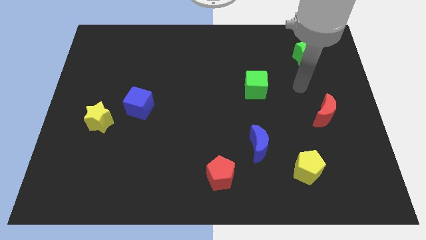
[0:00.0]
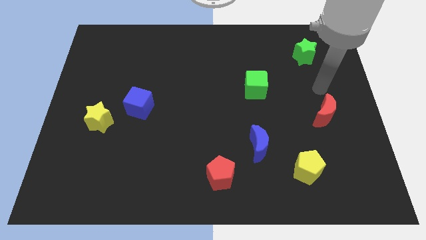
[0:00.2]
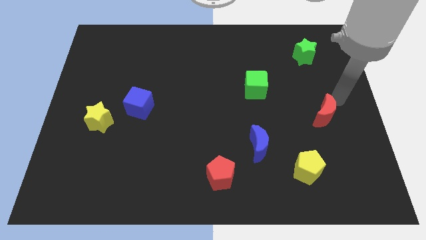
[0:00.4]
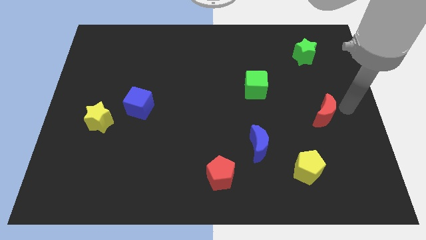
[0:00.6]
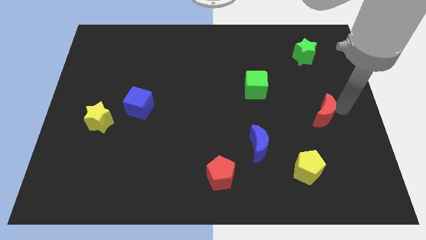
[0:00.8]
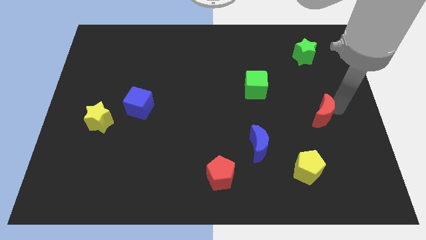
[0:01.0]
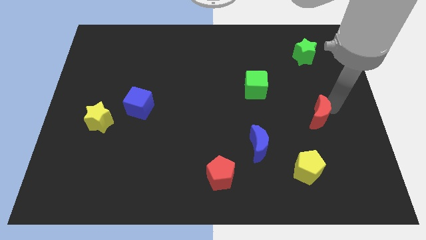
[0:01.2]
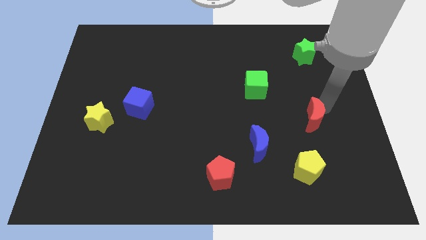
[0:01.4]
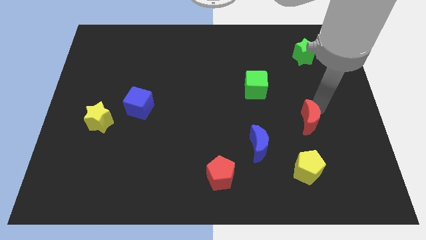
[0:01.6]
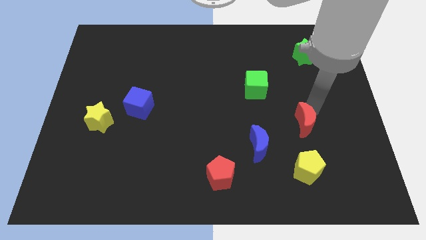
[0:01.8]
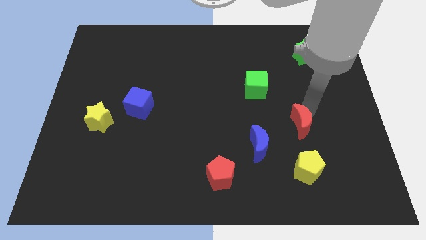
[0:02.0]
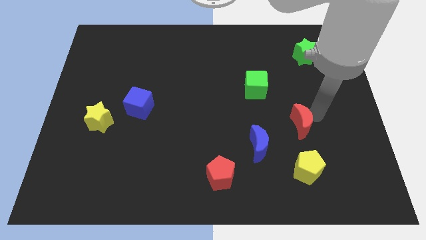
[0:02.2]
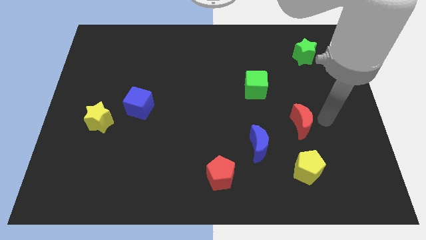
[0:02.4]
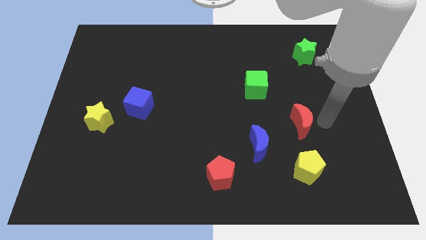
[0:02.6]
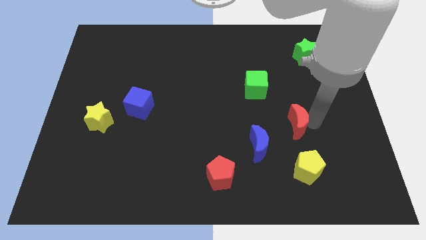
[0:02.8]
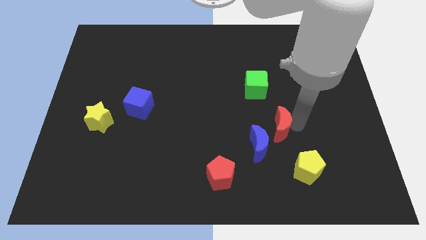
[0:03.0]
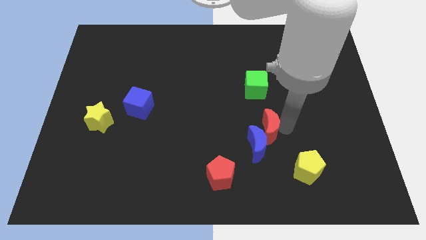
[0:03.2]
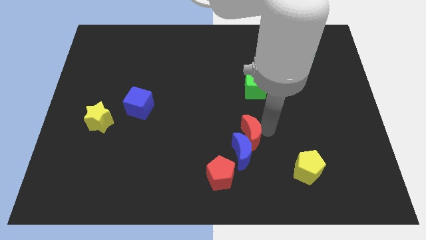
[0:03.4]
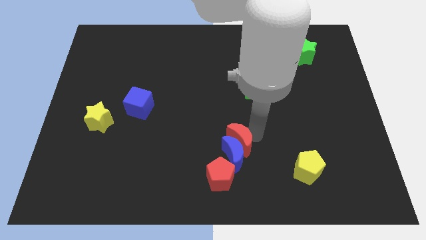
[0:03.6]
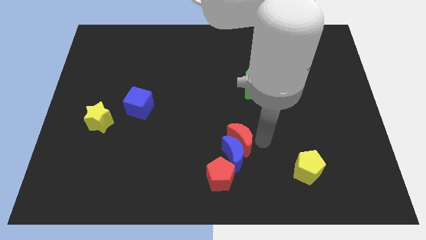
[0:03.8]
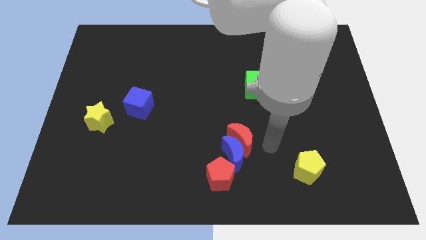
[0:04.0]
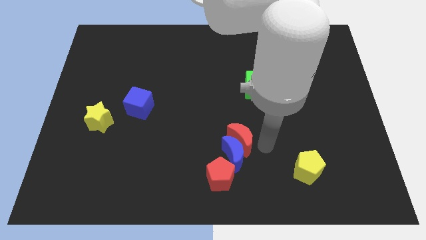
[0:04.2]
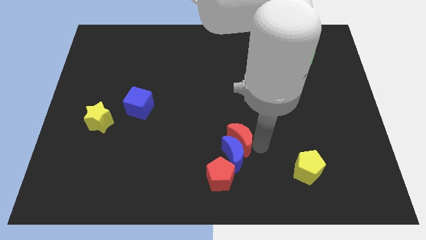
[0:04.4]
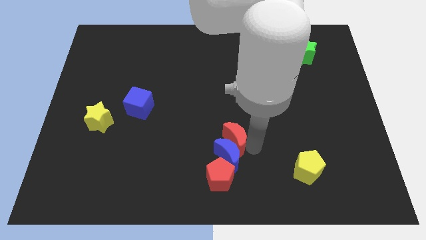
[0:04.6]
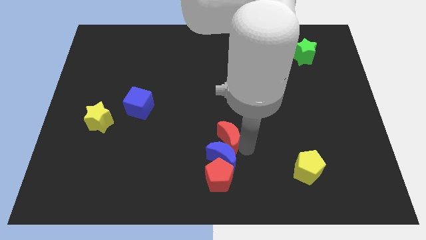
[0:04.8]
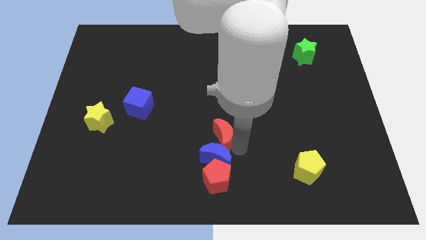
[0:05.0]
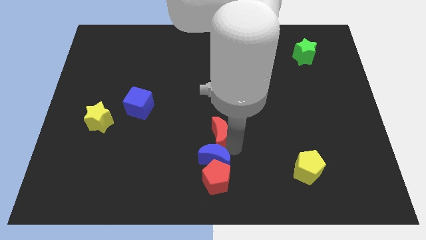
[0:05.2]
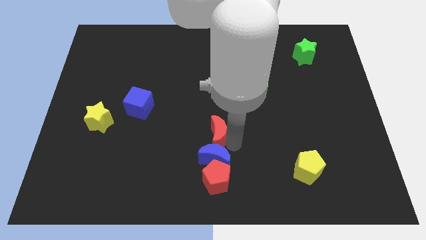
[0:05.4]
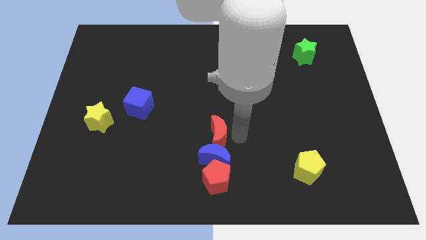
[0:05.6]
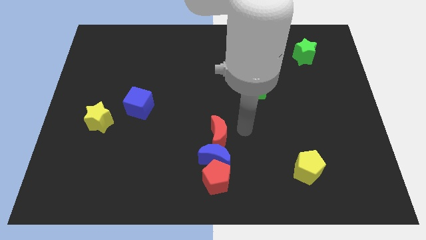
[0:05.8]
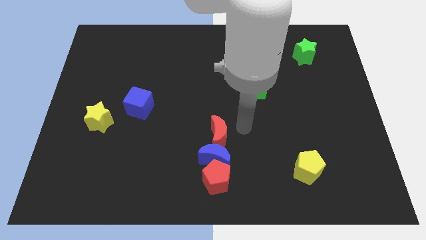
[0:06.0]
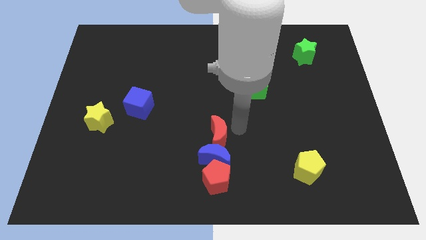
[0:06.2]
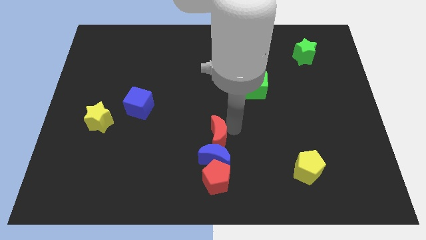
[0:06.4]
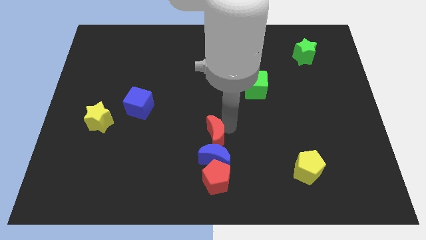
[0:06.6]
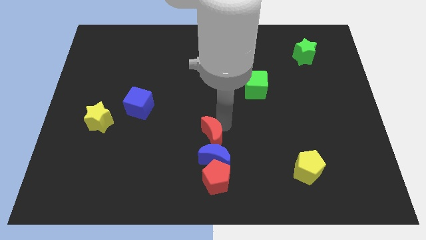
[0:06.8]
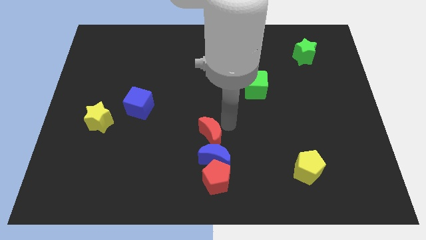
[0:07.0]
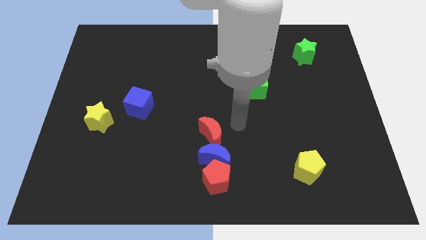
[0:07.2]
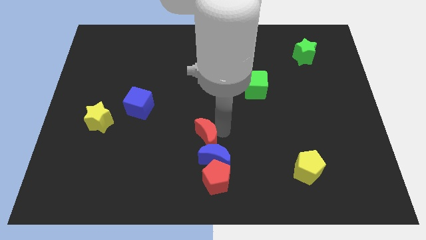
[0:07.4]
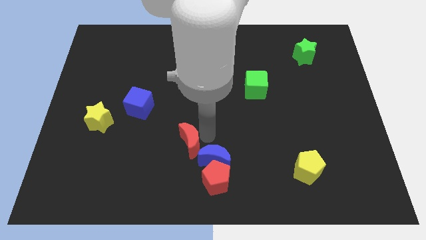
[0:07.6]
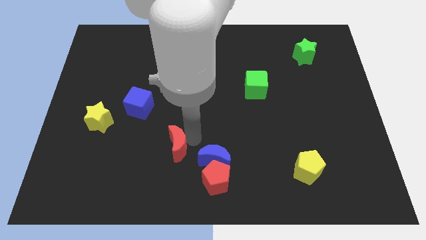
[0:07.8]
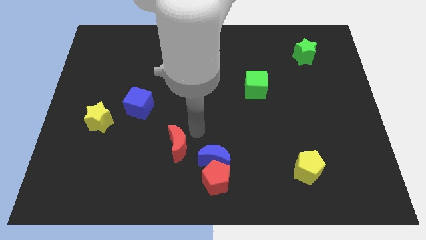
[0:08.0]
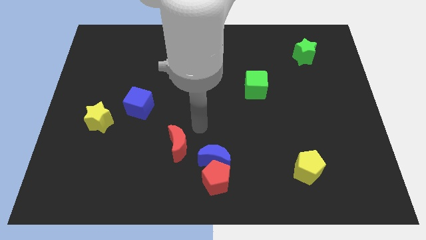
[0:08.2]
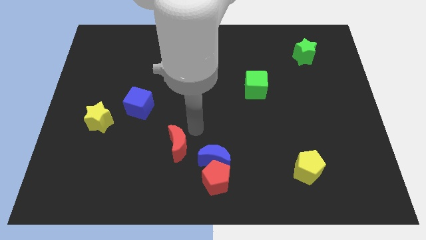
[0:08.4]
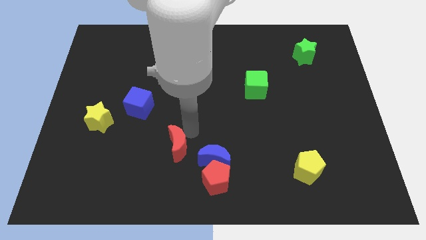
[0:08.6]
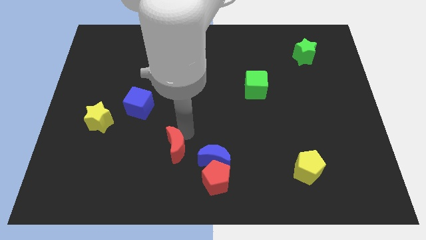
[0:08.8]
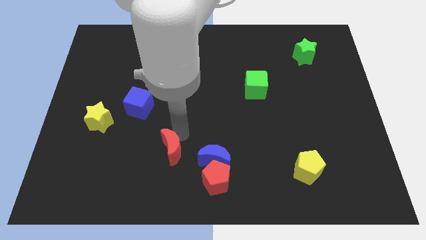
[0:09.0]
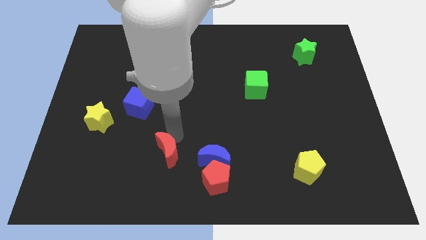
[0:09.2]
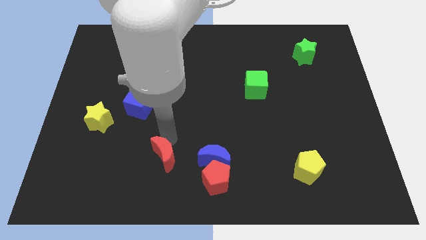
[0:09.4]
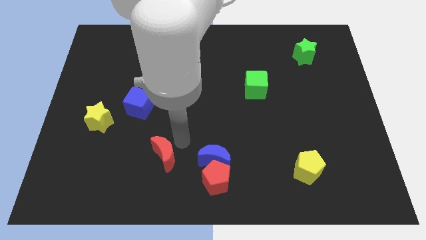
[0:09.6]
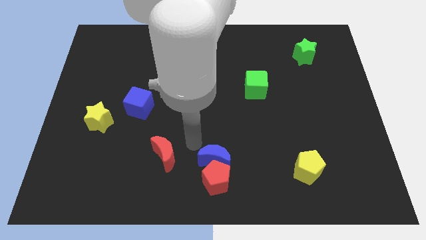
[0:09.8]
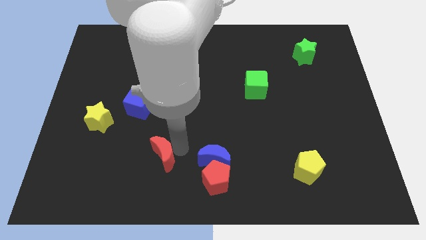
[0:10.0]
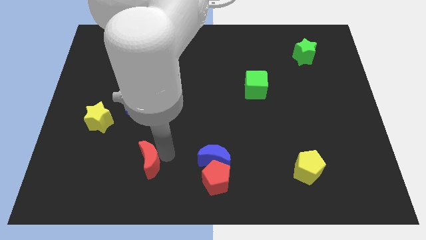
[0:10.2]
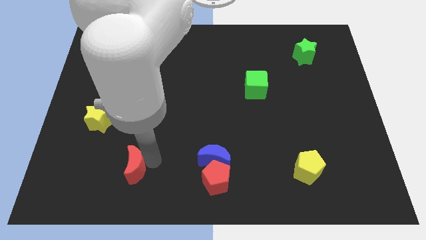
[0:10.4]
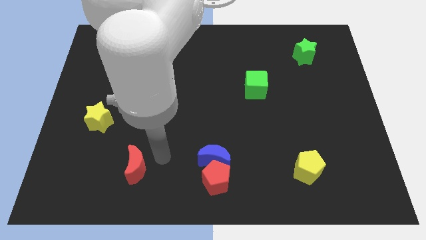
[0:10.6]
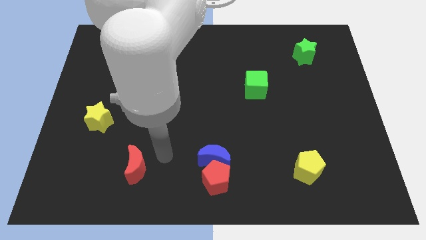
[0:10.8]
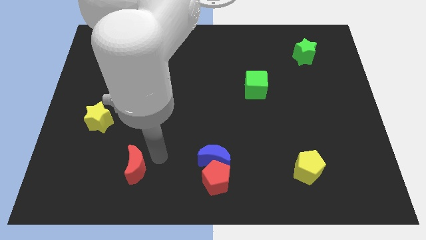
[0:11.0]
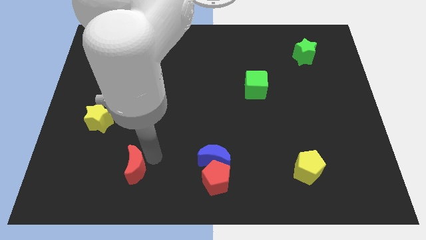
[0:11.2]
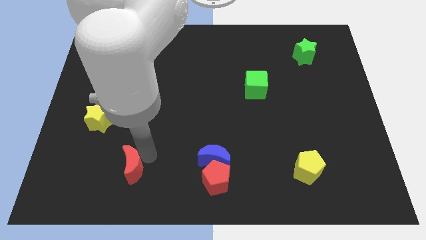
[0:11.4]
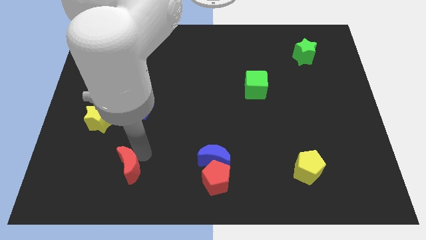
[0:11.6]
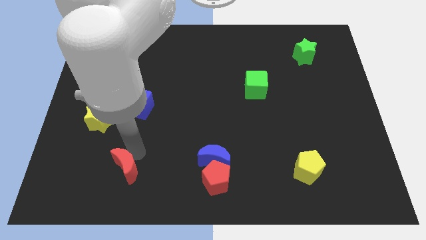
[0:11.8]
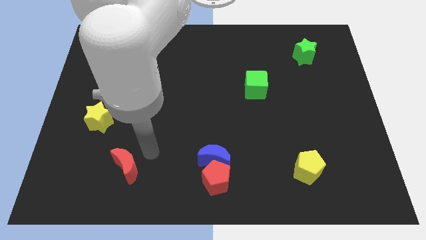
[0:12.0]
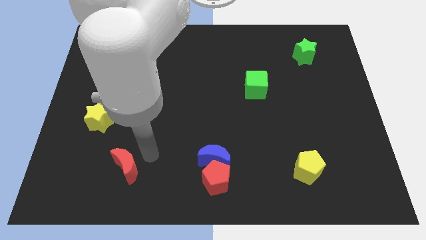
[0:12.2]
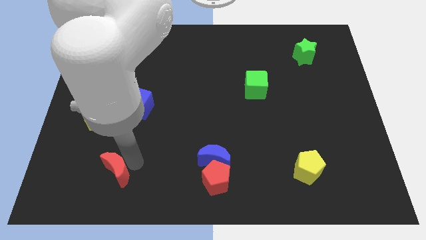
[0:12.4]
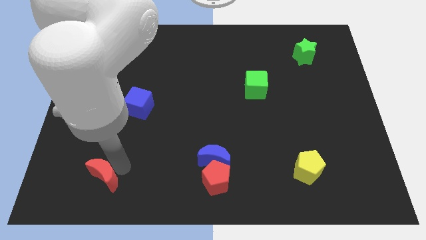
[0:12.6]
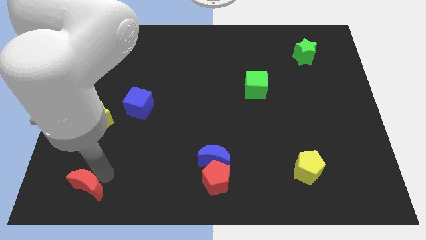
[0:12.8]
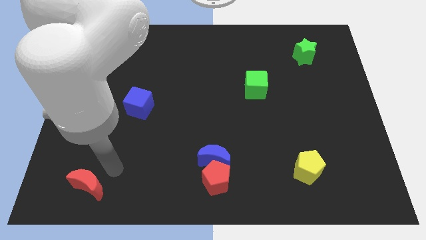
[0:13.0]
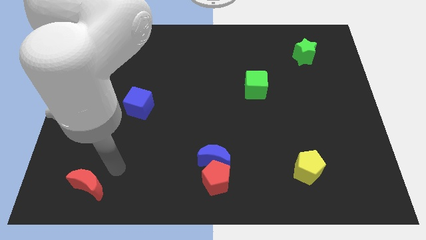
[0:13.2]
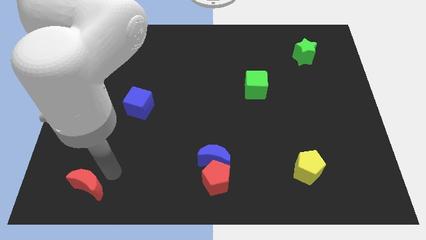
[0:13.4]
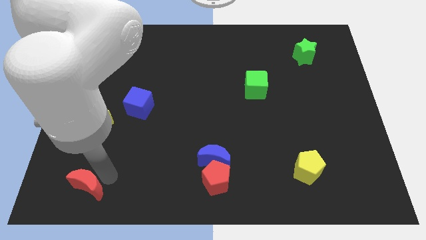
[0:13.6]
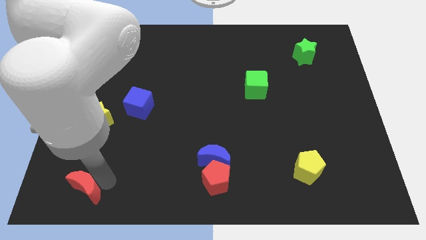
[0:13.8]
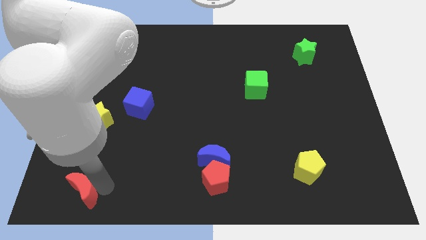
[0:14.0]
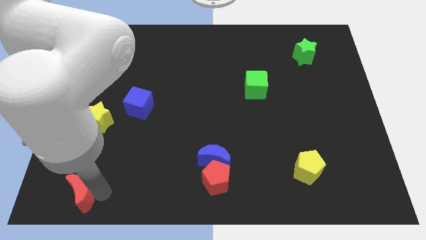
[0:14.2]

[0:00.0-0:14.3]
move the red moon to the lower left corner
